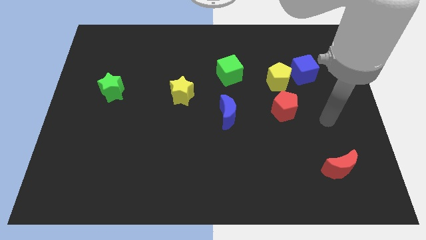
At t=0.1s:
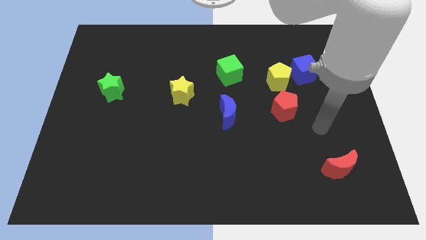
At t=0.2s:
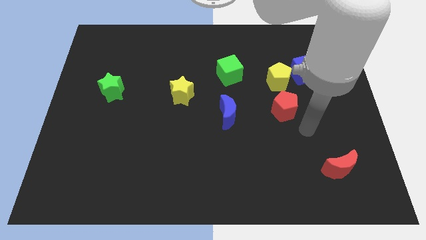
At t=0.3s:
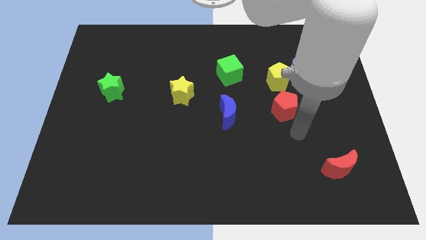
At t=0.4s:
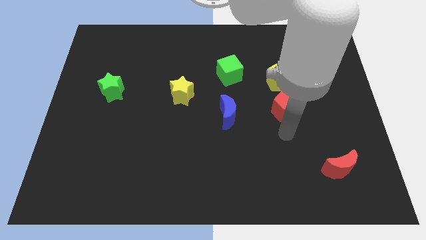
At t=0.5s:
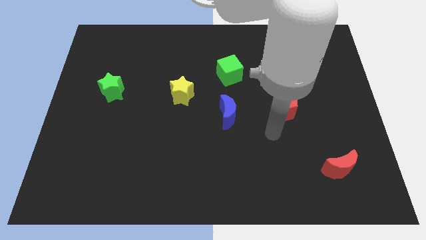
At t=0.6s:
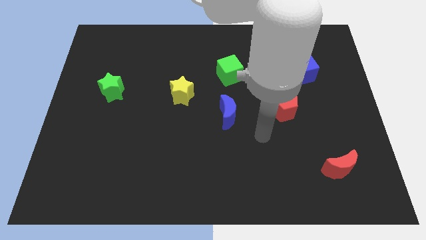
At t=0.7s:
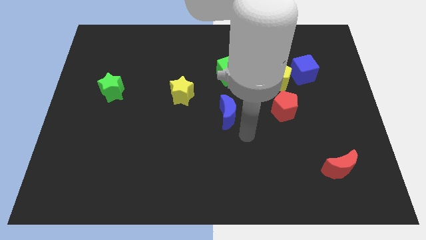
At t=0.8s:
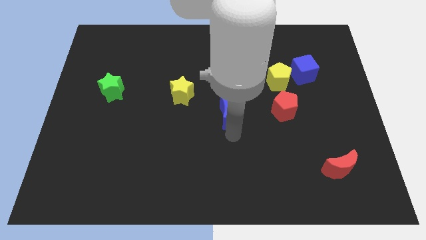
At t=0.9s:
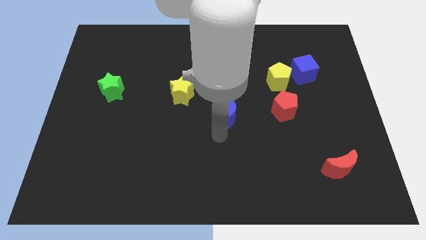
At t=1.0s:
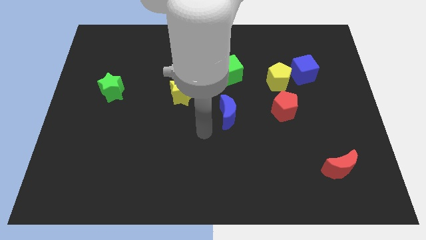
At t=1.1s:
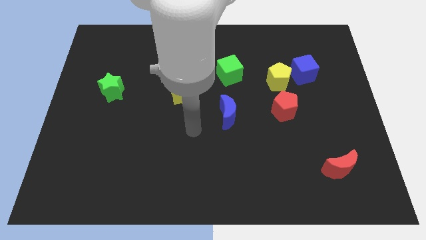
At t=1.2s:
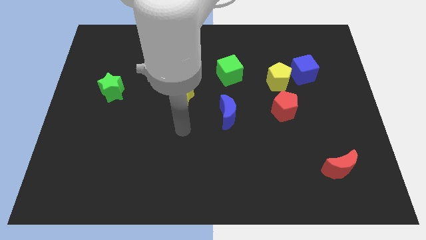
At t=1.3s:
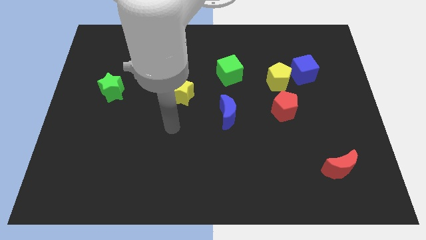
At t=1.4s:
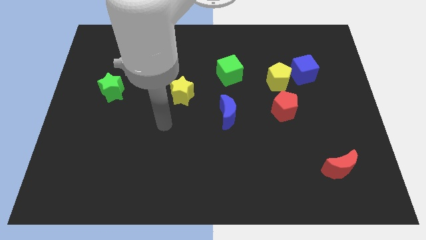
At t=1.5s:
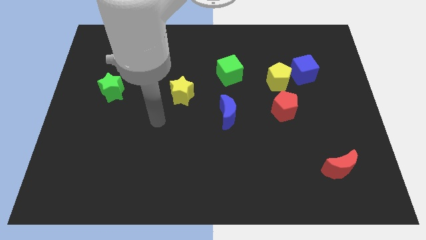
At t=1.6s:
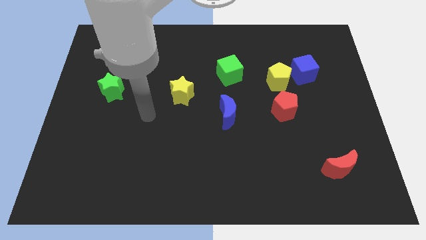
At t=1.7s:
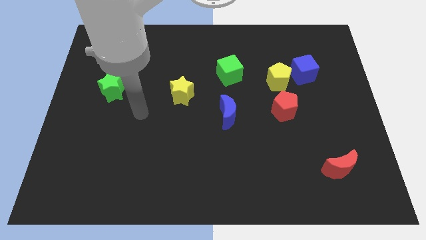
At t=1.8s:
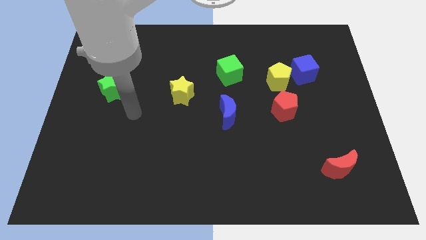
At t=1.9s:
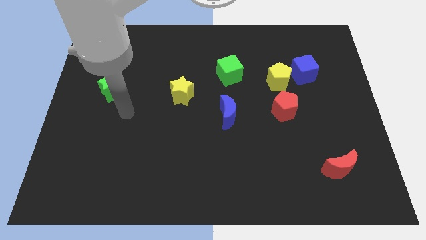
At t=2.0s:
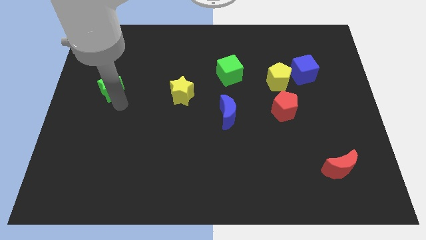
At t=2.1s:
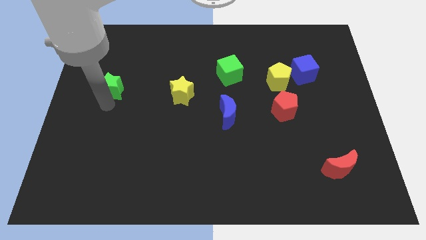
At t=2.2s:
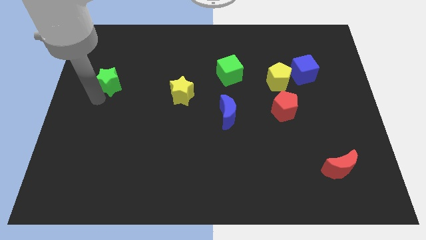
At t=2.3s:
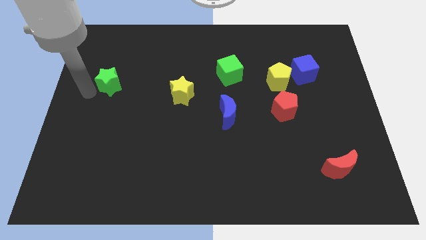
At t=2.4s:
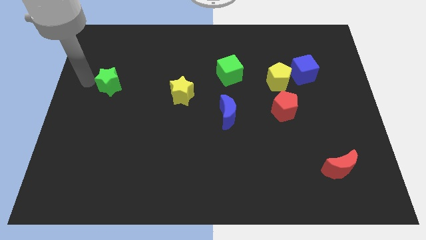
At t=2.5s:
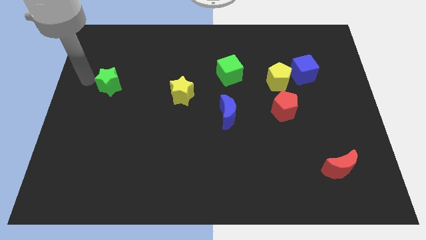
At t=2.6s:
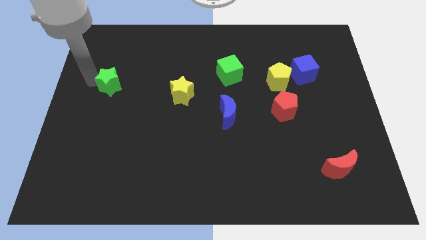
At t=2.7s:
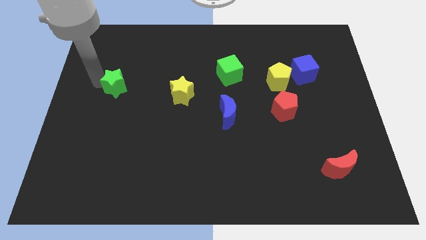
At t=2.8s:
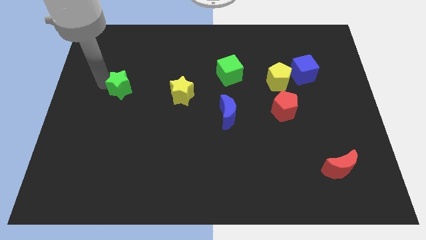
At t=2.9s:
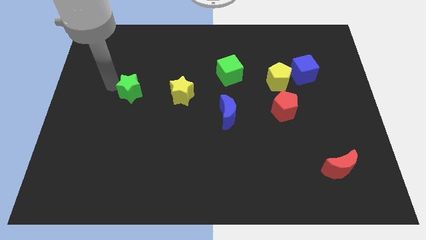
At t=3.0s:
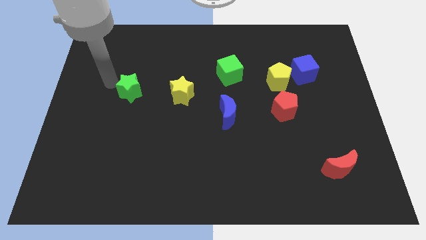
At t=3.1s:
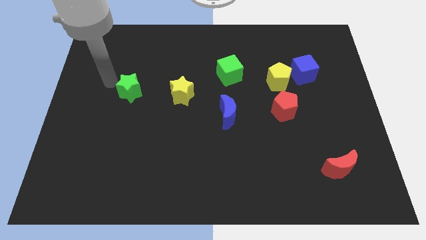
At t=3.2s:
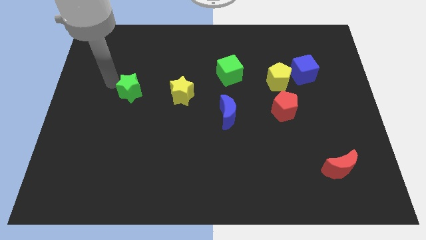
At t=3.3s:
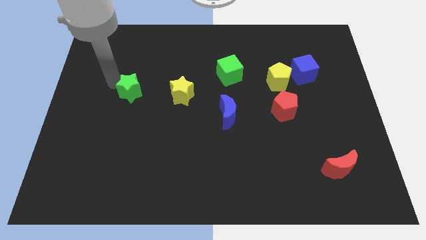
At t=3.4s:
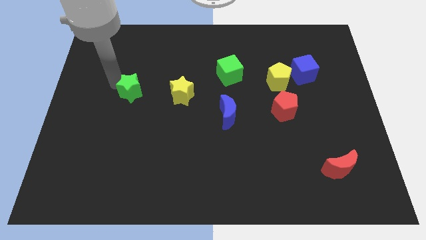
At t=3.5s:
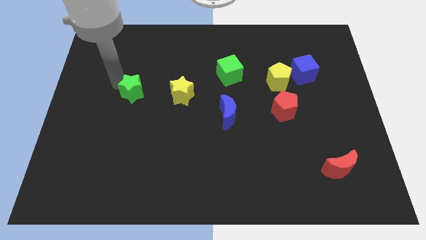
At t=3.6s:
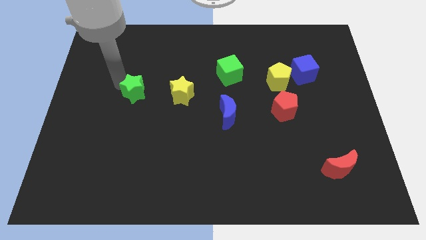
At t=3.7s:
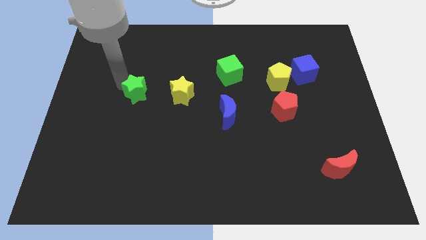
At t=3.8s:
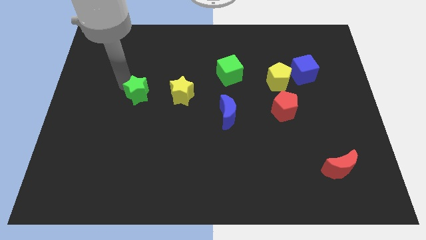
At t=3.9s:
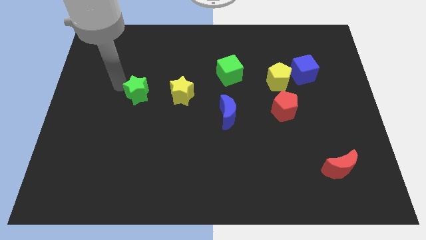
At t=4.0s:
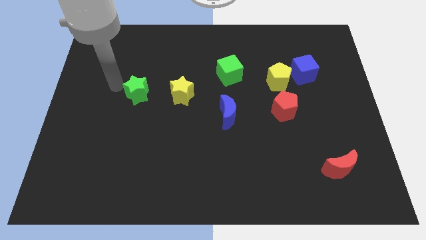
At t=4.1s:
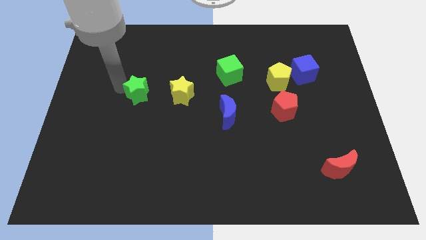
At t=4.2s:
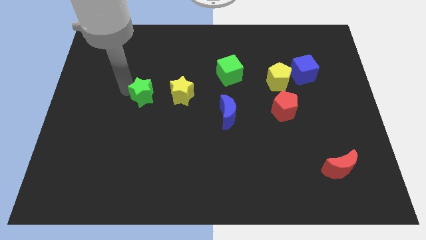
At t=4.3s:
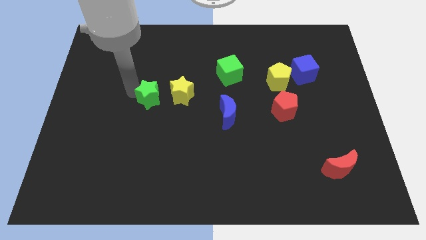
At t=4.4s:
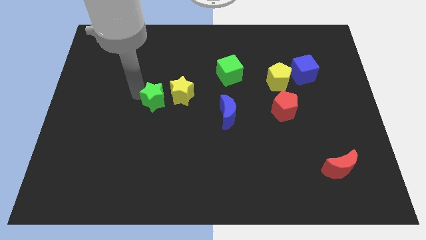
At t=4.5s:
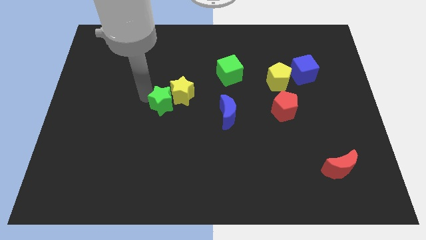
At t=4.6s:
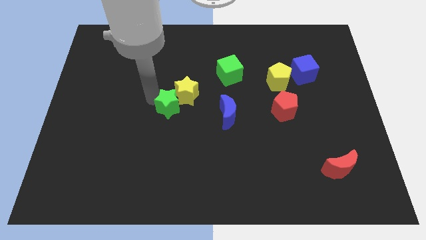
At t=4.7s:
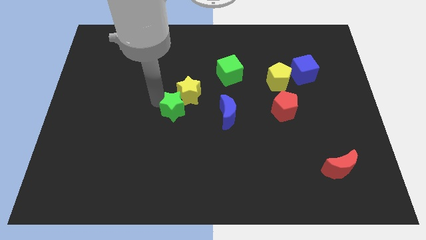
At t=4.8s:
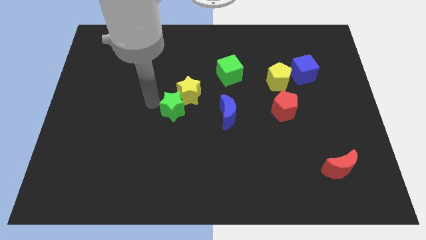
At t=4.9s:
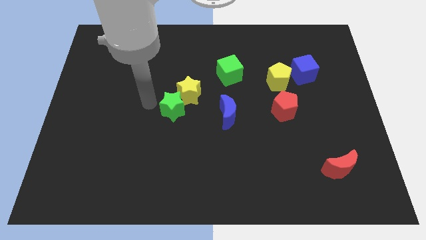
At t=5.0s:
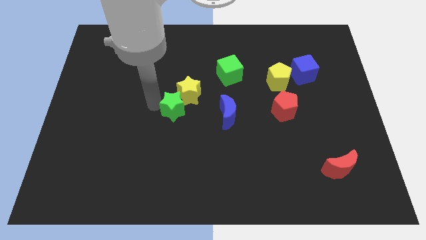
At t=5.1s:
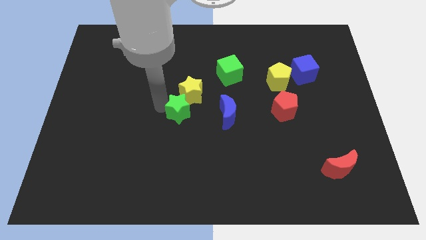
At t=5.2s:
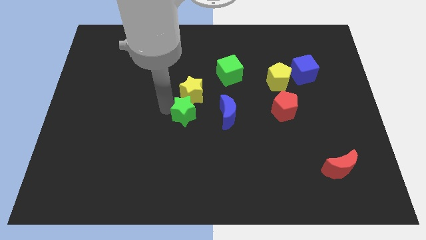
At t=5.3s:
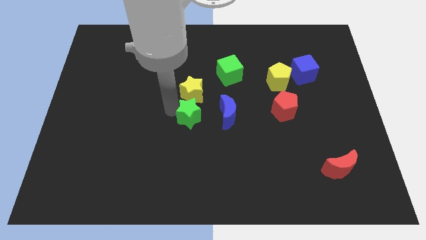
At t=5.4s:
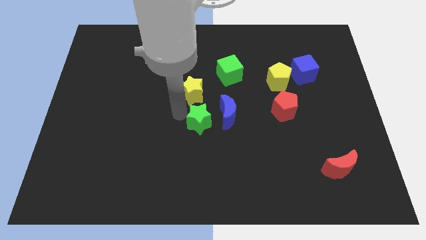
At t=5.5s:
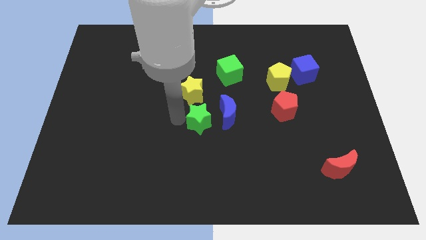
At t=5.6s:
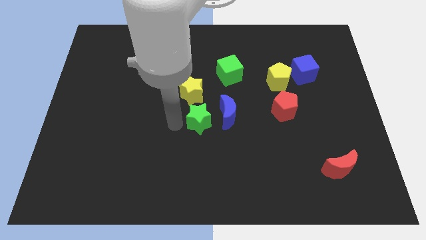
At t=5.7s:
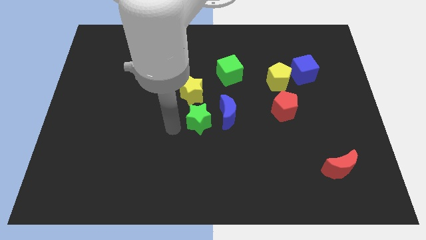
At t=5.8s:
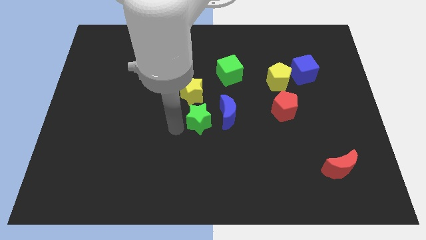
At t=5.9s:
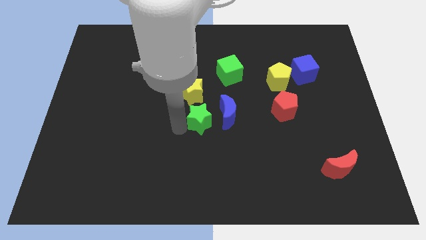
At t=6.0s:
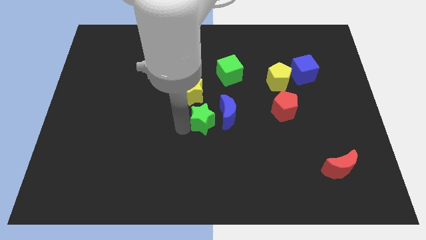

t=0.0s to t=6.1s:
move the green star close to the blue moon

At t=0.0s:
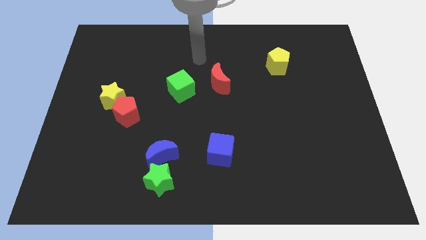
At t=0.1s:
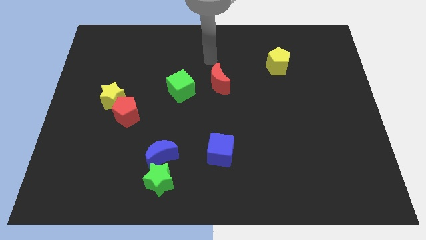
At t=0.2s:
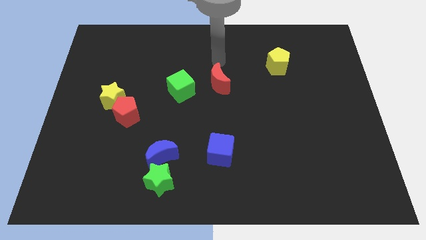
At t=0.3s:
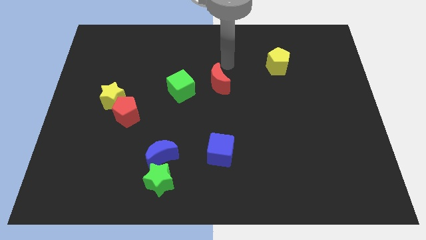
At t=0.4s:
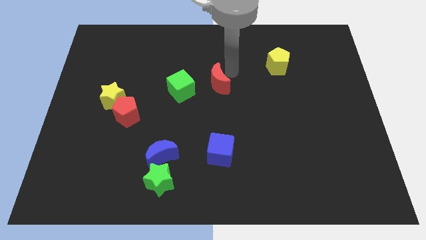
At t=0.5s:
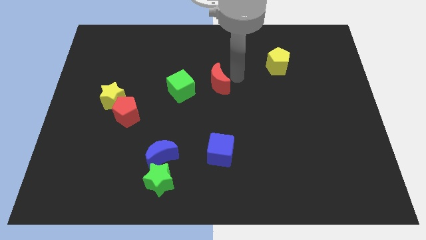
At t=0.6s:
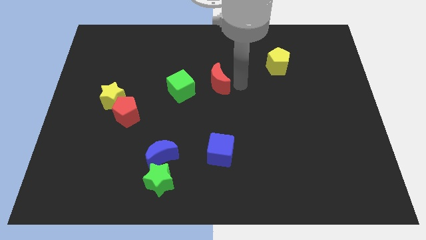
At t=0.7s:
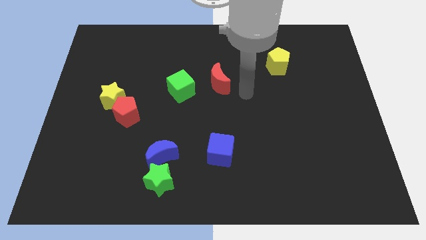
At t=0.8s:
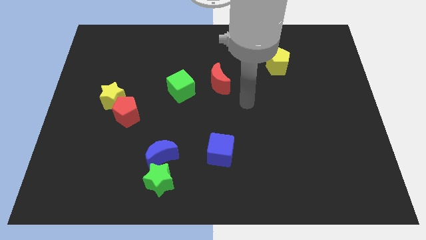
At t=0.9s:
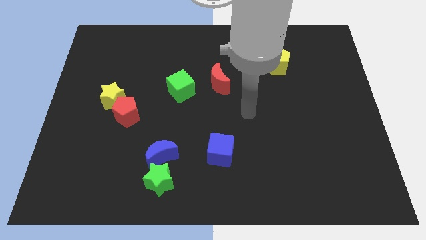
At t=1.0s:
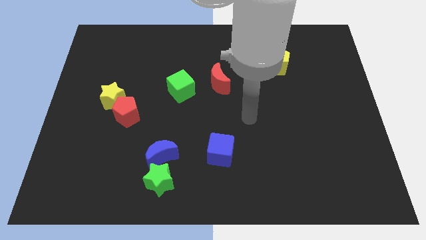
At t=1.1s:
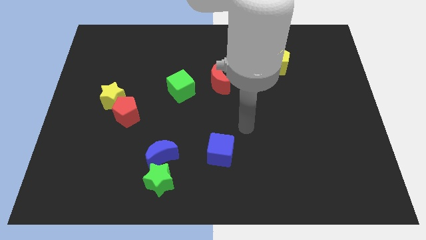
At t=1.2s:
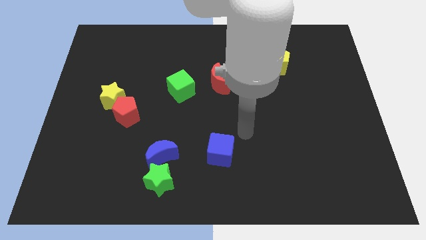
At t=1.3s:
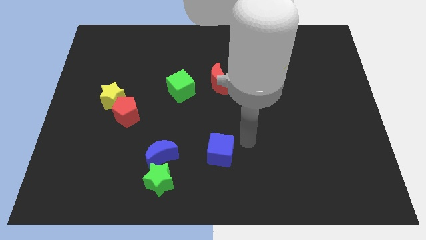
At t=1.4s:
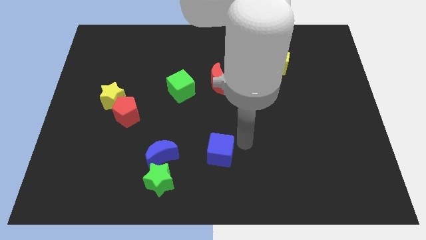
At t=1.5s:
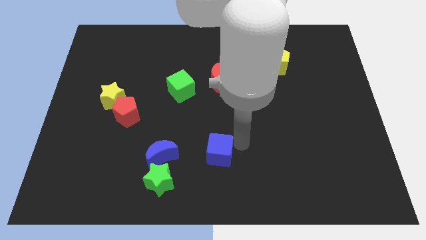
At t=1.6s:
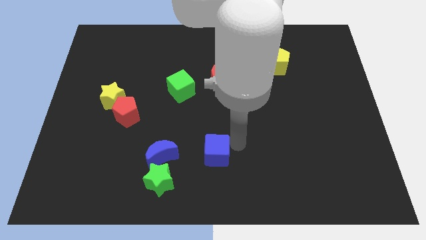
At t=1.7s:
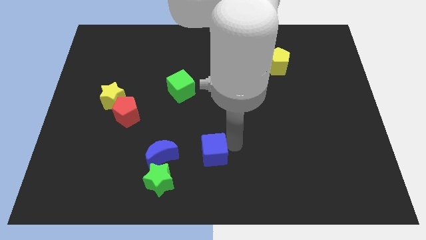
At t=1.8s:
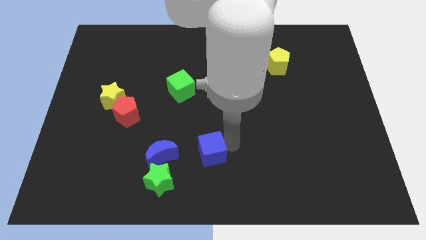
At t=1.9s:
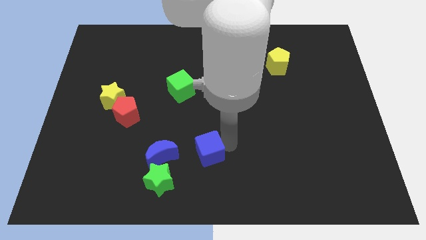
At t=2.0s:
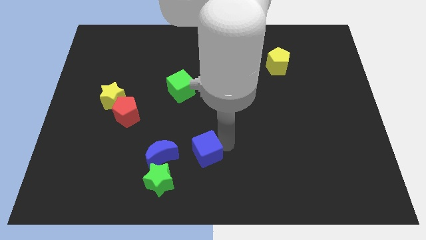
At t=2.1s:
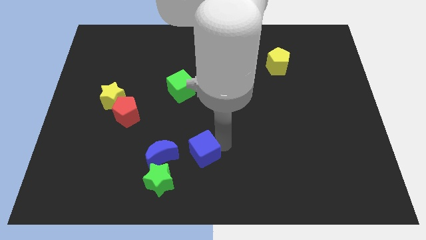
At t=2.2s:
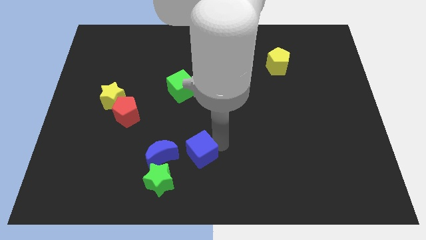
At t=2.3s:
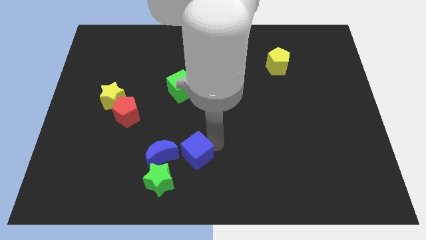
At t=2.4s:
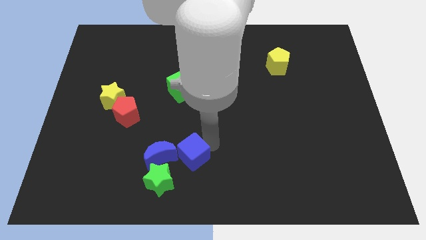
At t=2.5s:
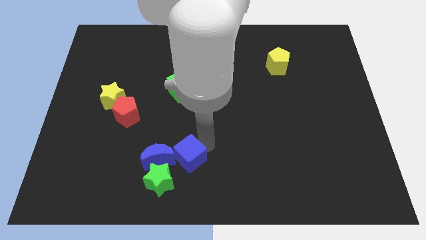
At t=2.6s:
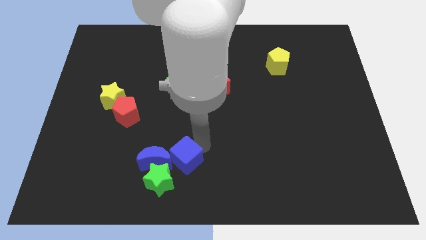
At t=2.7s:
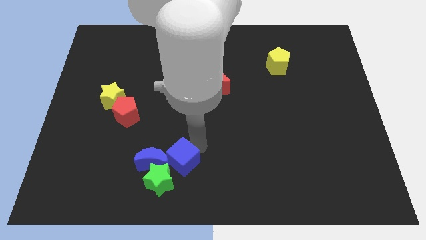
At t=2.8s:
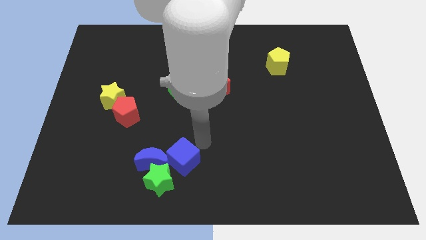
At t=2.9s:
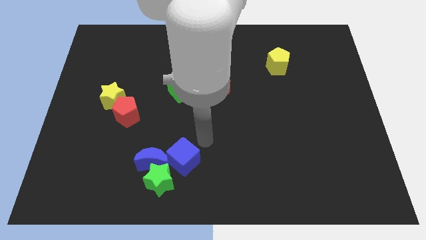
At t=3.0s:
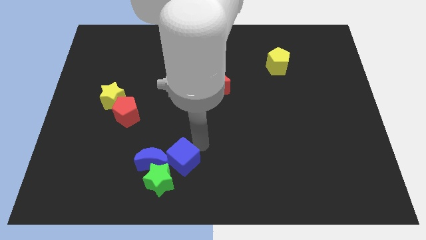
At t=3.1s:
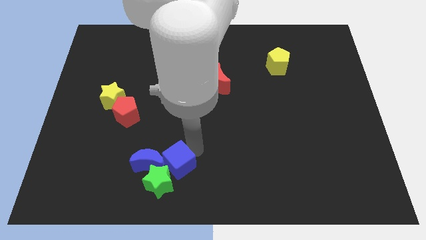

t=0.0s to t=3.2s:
move the blue cube towards the green star
